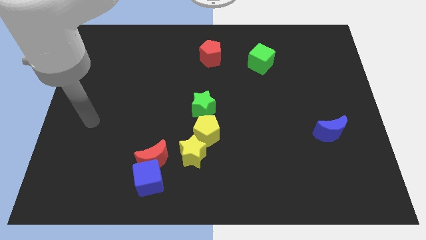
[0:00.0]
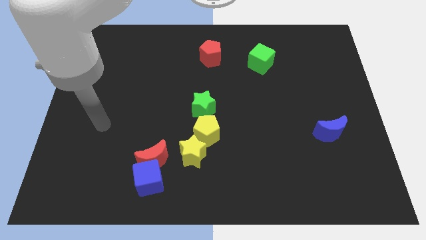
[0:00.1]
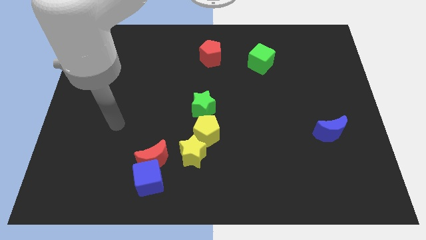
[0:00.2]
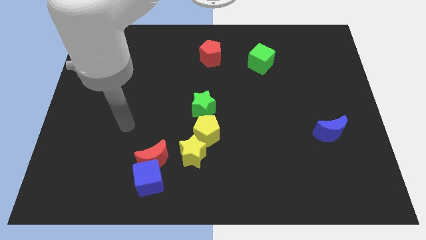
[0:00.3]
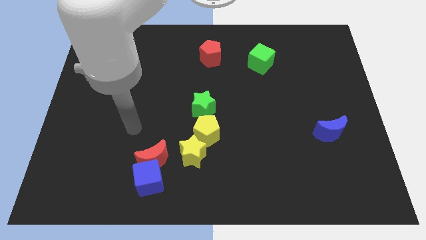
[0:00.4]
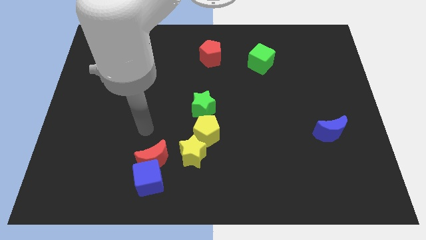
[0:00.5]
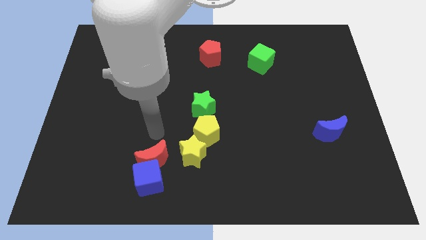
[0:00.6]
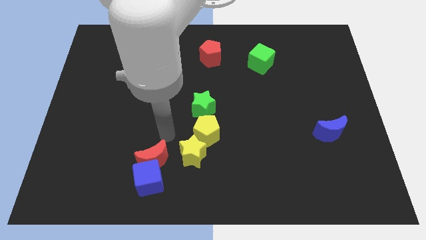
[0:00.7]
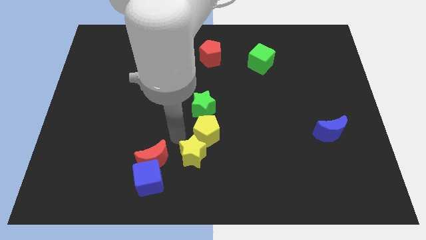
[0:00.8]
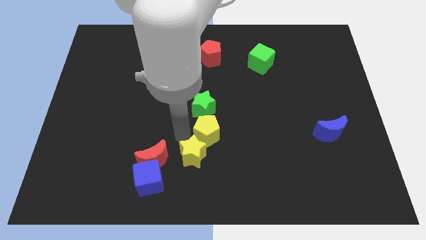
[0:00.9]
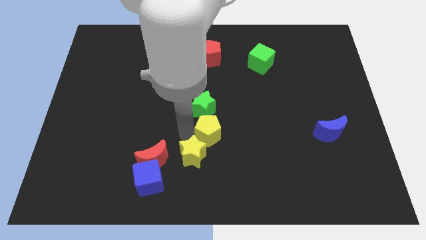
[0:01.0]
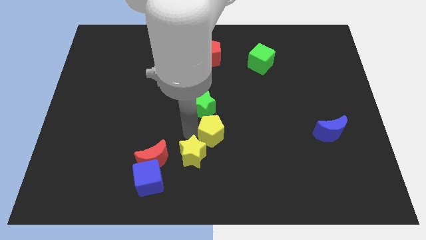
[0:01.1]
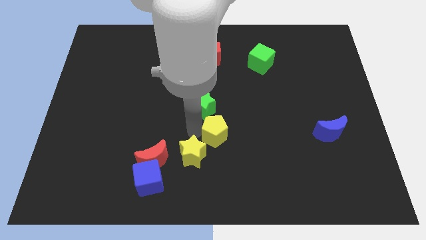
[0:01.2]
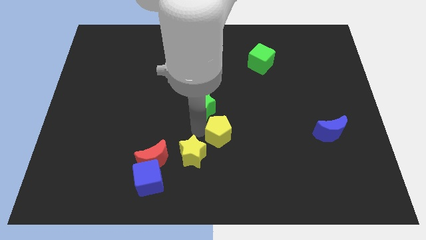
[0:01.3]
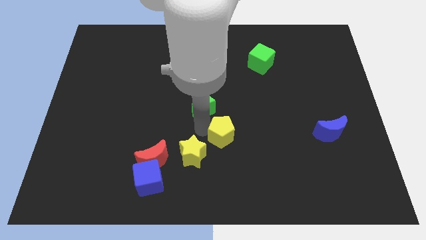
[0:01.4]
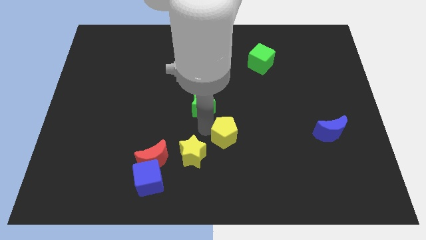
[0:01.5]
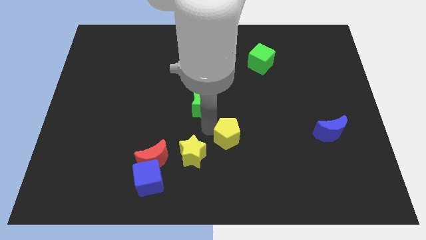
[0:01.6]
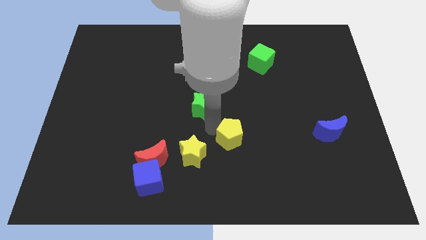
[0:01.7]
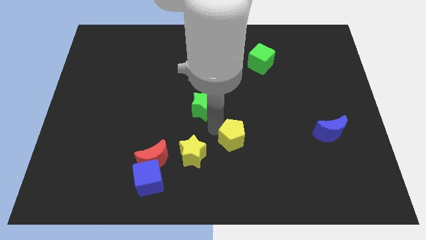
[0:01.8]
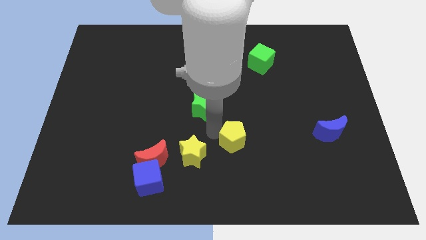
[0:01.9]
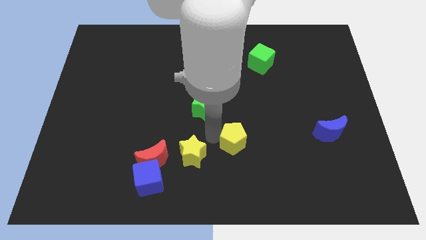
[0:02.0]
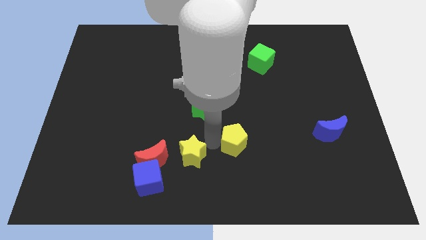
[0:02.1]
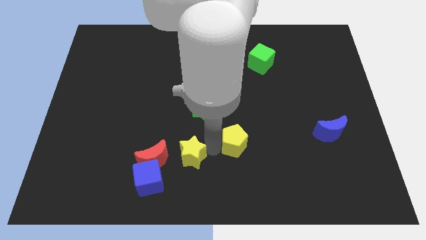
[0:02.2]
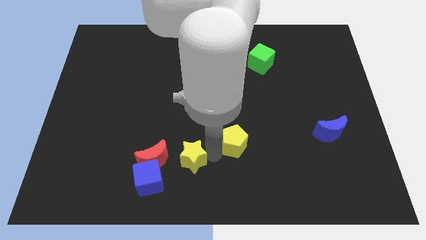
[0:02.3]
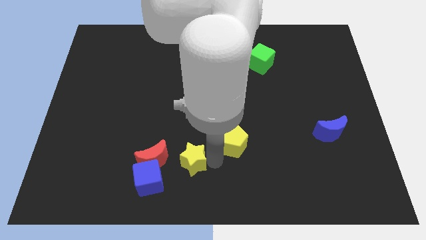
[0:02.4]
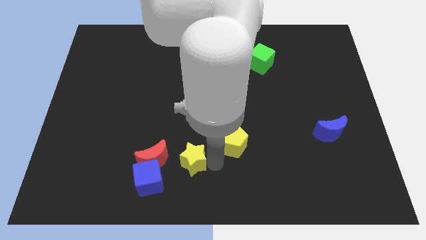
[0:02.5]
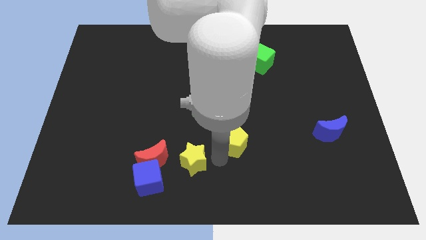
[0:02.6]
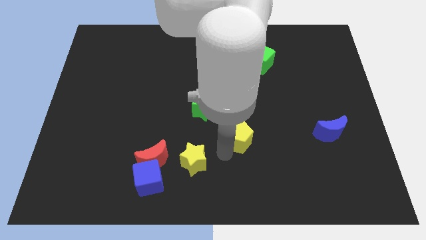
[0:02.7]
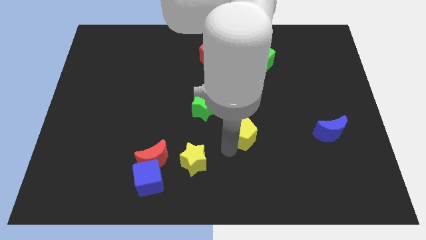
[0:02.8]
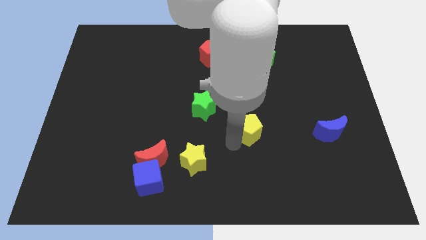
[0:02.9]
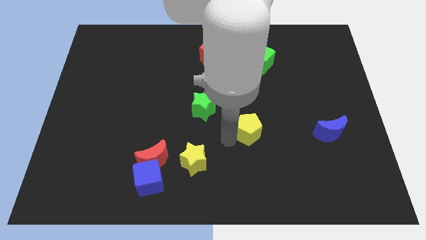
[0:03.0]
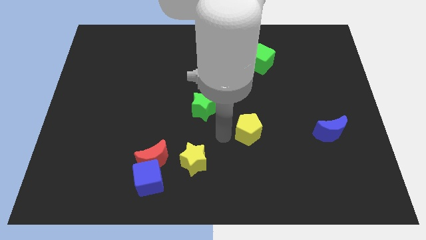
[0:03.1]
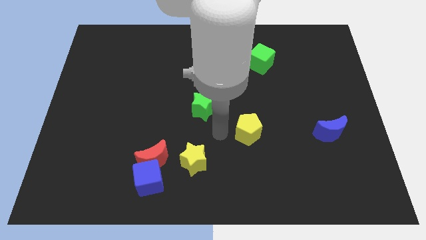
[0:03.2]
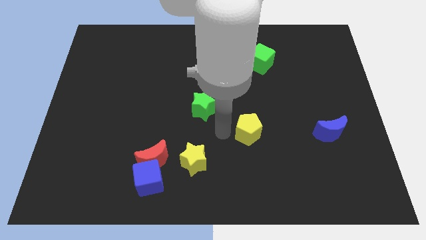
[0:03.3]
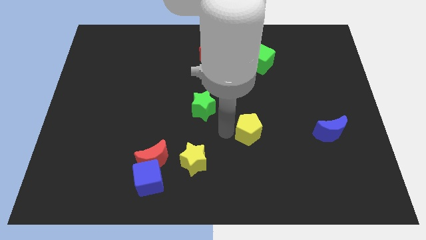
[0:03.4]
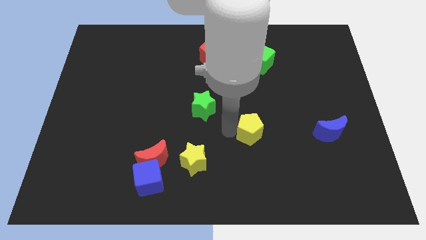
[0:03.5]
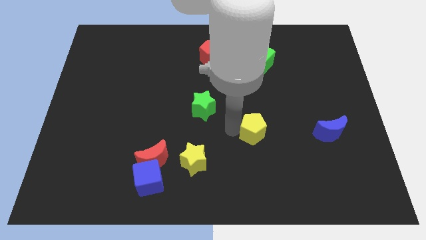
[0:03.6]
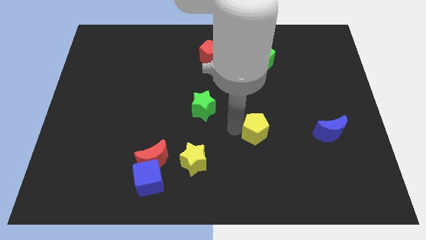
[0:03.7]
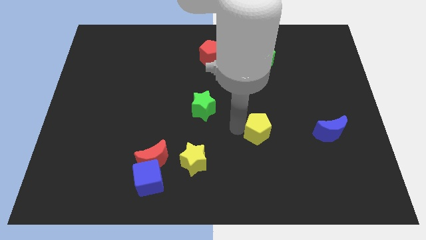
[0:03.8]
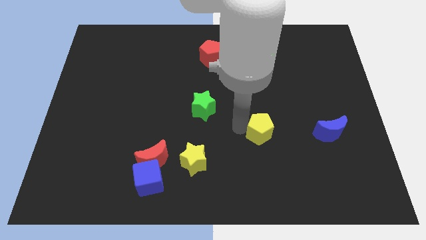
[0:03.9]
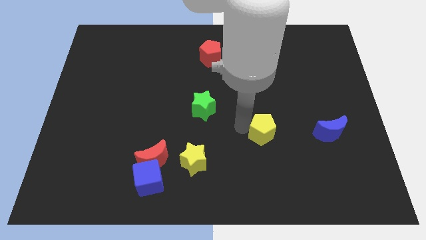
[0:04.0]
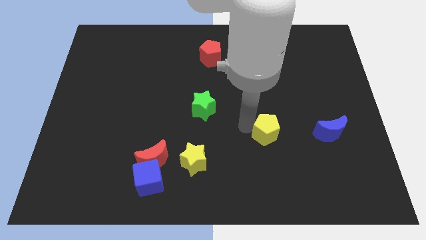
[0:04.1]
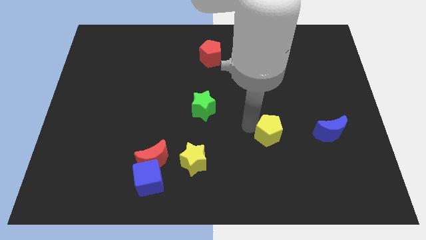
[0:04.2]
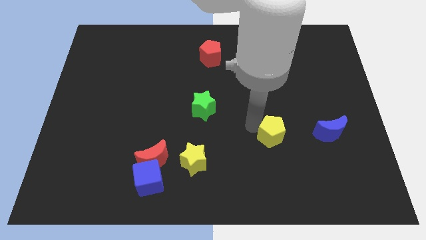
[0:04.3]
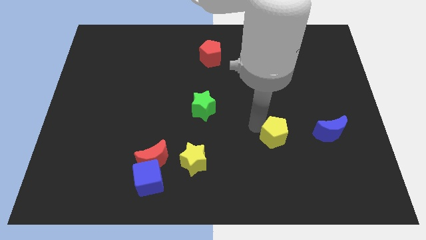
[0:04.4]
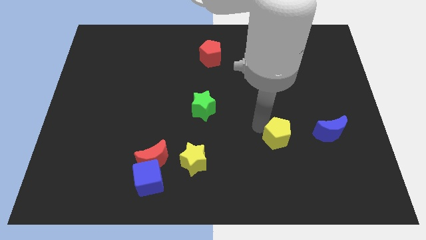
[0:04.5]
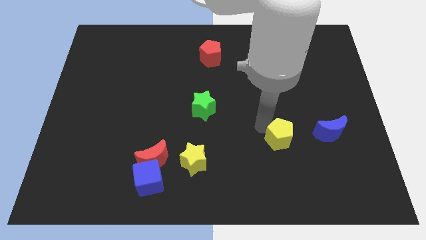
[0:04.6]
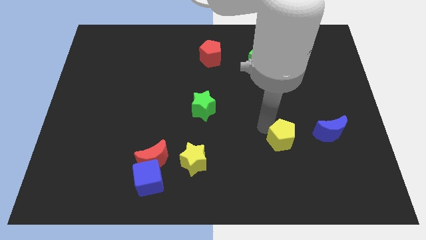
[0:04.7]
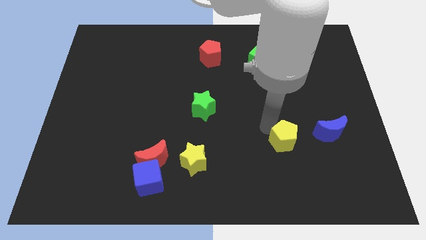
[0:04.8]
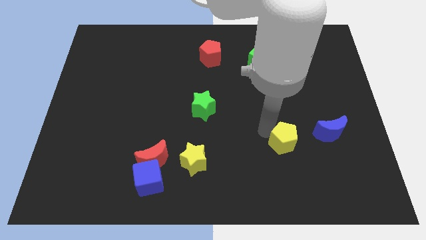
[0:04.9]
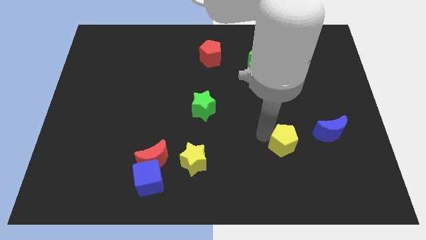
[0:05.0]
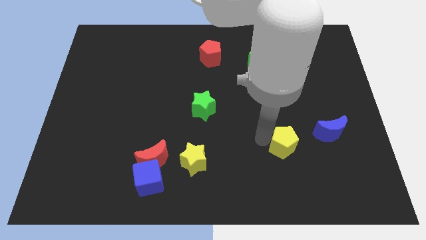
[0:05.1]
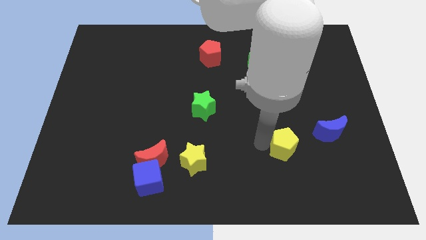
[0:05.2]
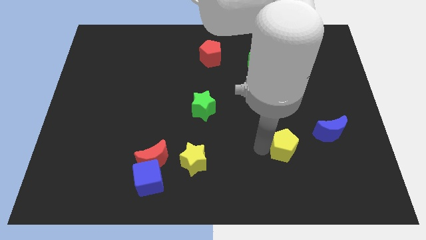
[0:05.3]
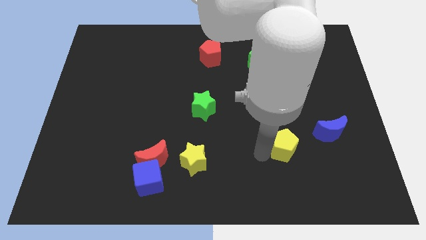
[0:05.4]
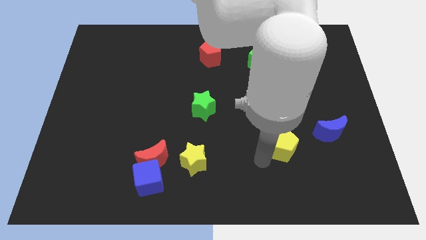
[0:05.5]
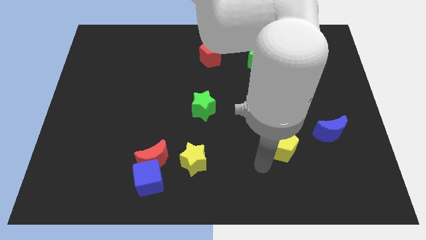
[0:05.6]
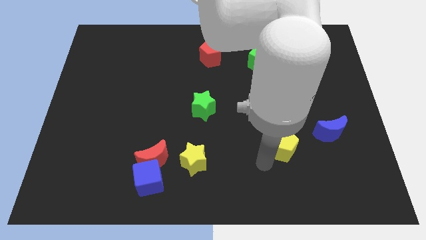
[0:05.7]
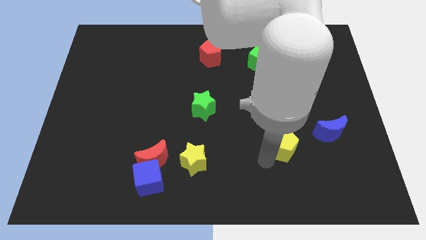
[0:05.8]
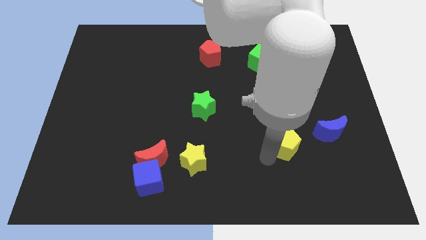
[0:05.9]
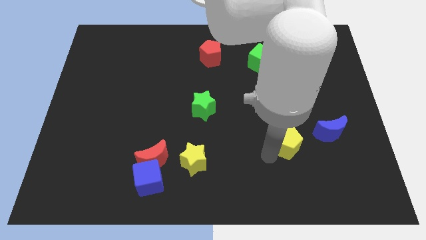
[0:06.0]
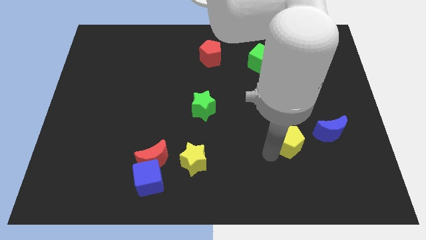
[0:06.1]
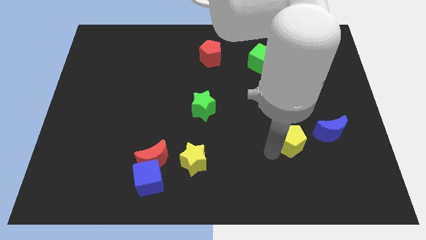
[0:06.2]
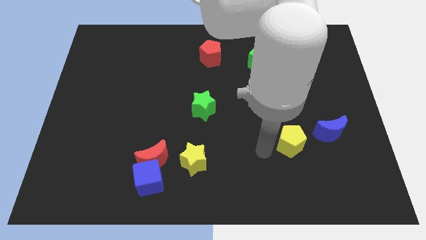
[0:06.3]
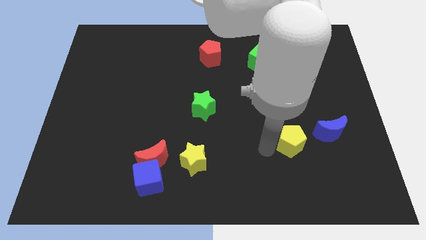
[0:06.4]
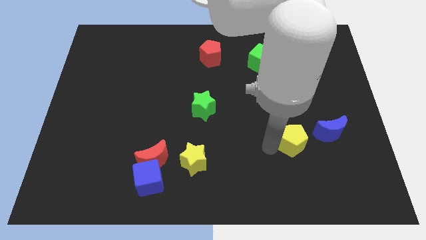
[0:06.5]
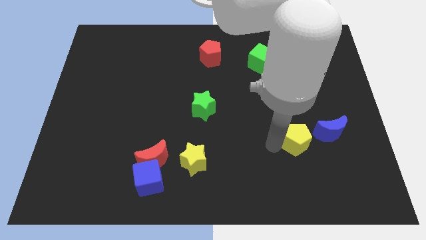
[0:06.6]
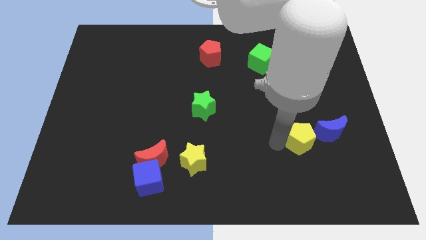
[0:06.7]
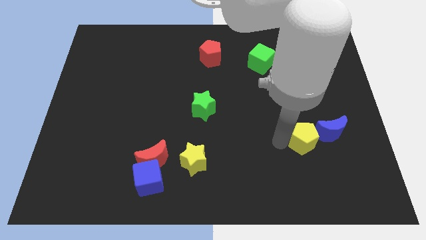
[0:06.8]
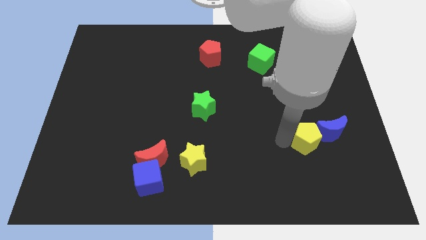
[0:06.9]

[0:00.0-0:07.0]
slide the yellow pentagon close to the blue moon

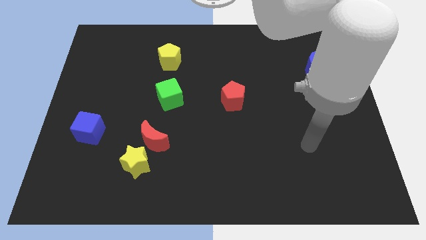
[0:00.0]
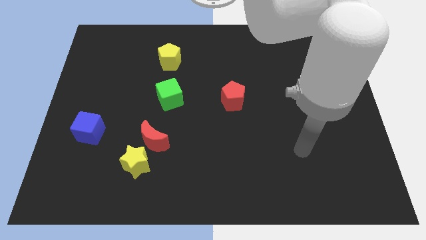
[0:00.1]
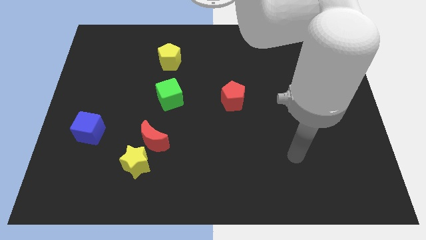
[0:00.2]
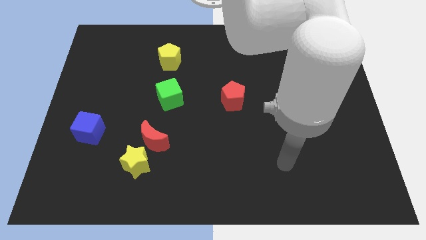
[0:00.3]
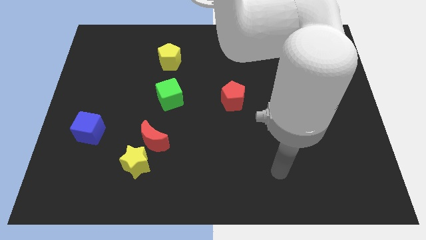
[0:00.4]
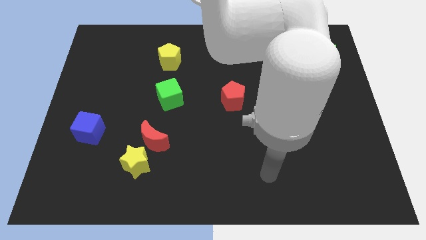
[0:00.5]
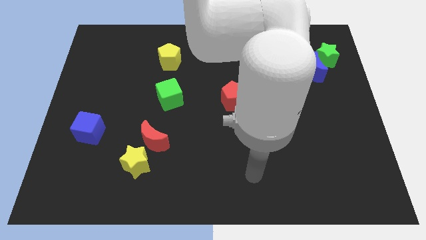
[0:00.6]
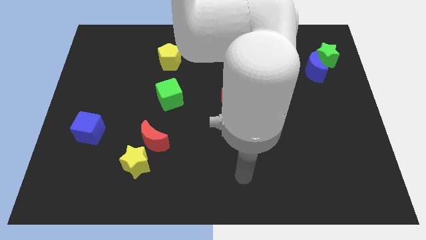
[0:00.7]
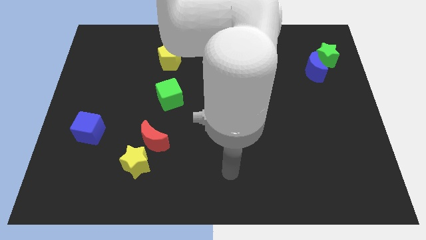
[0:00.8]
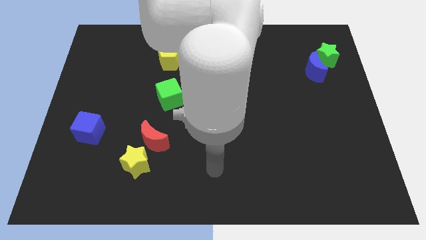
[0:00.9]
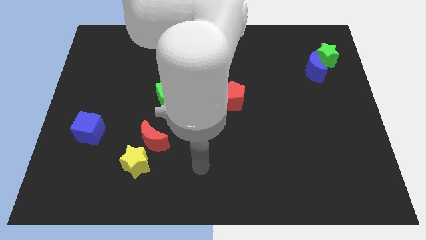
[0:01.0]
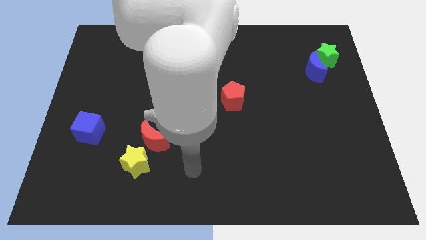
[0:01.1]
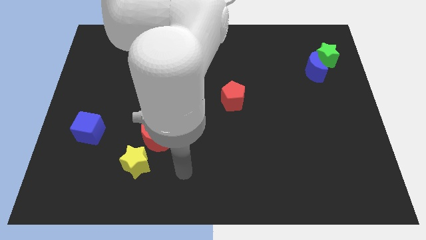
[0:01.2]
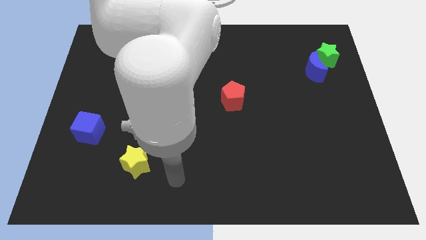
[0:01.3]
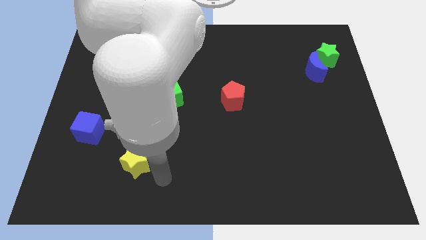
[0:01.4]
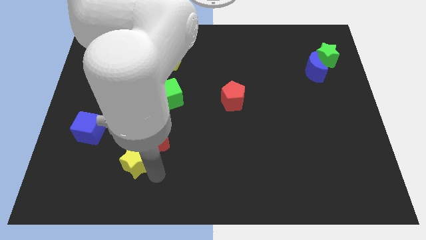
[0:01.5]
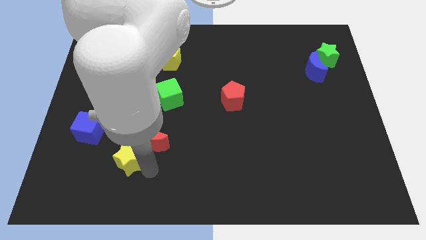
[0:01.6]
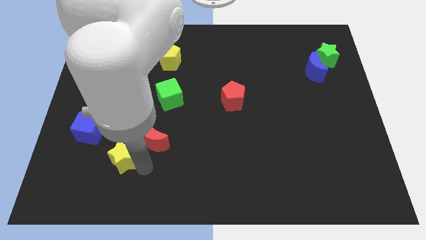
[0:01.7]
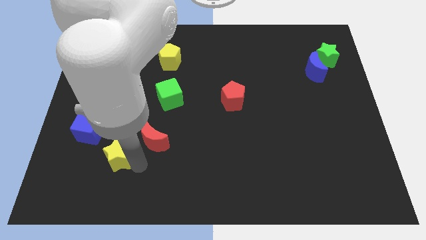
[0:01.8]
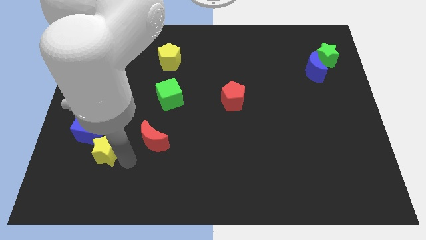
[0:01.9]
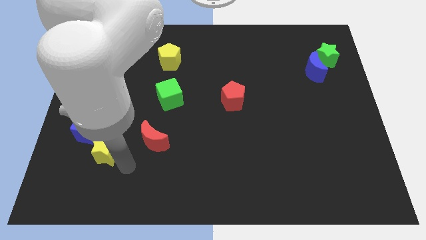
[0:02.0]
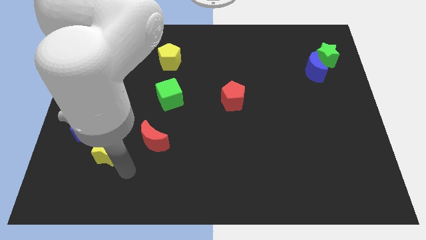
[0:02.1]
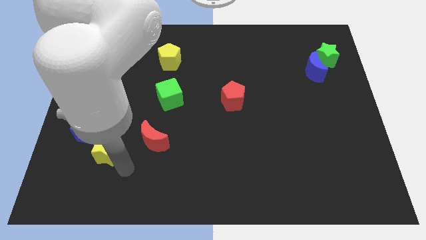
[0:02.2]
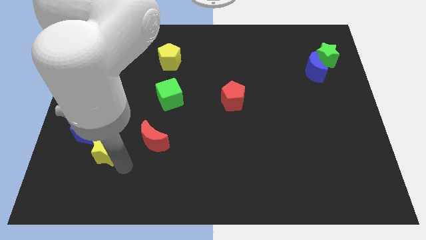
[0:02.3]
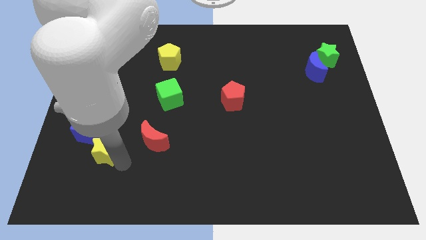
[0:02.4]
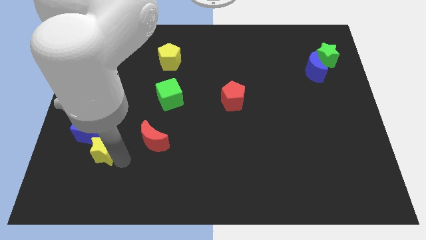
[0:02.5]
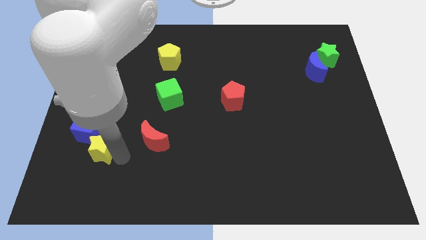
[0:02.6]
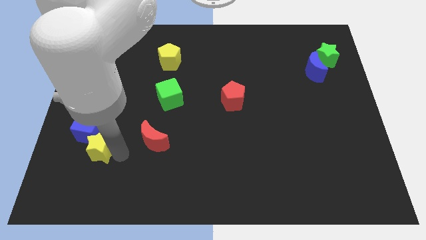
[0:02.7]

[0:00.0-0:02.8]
slide the yellow star next to the blue cube
